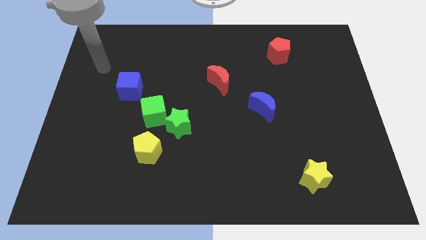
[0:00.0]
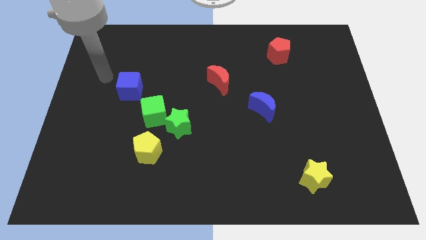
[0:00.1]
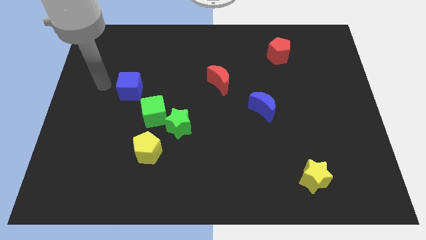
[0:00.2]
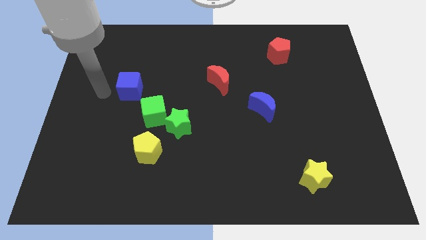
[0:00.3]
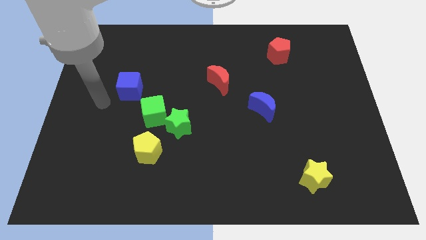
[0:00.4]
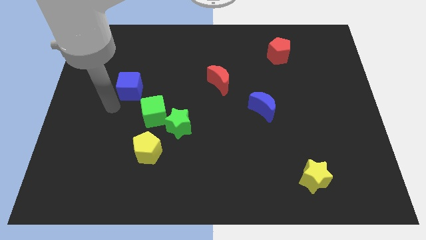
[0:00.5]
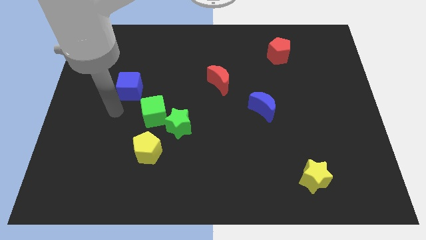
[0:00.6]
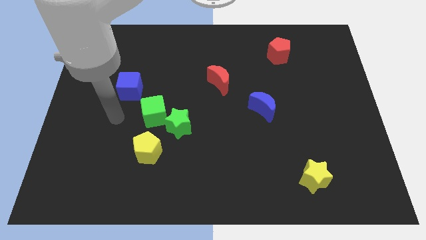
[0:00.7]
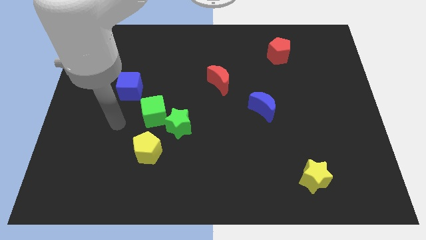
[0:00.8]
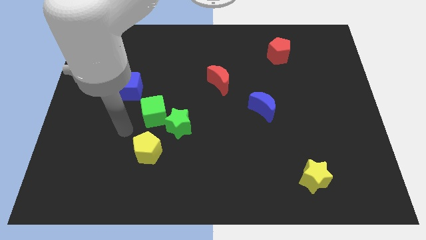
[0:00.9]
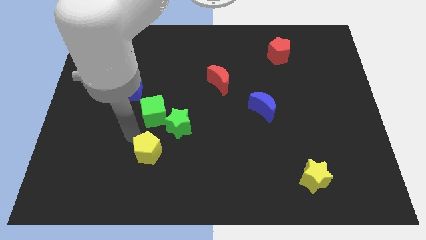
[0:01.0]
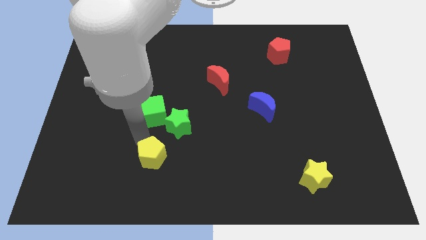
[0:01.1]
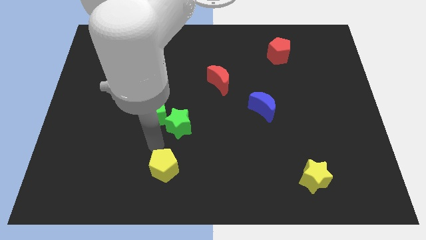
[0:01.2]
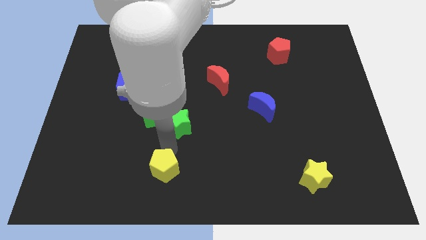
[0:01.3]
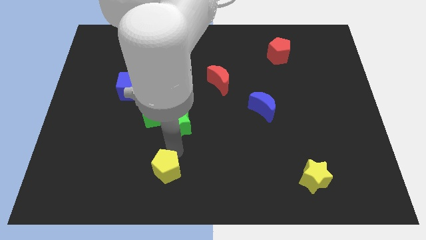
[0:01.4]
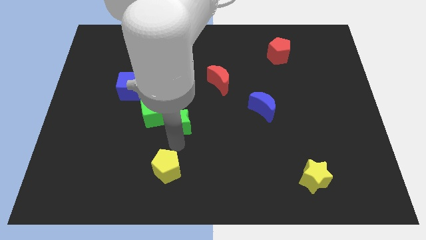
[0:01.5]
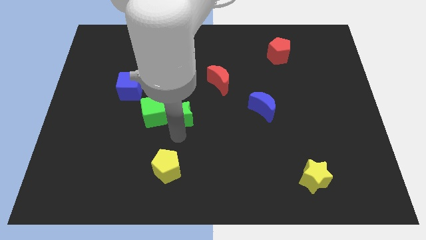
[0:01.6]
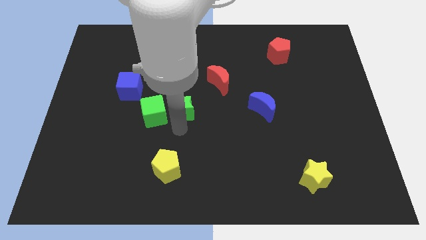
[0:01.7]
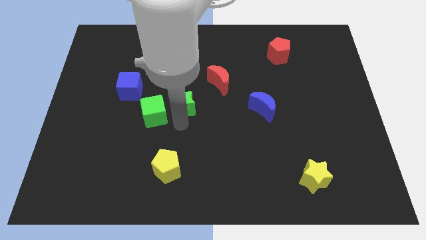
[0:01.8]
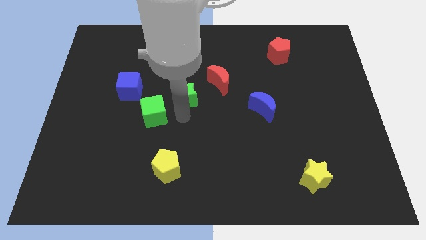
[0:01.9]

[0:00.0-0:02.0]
move the green star slightly up

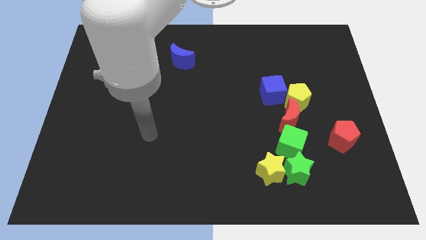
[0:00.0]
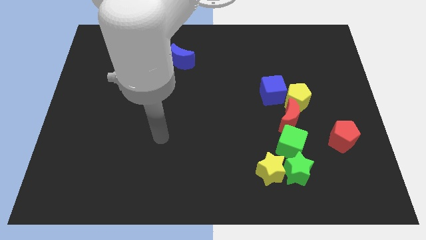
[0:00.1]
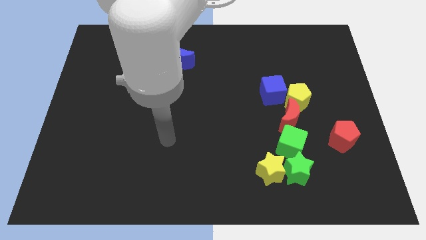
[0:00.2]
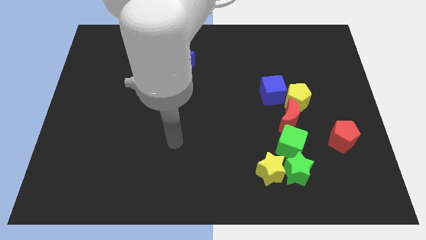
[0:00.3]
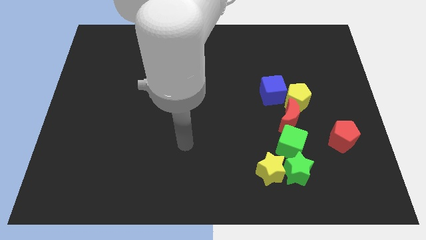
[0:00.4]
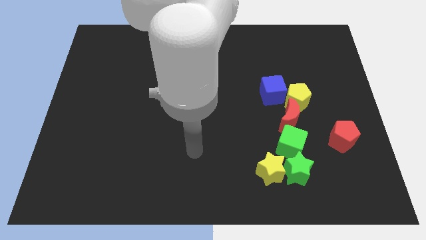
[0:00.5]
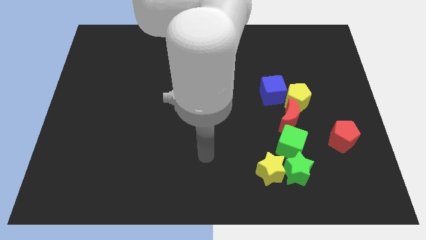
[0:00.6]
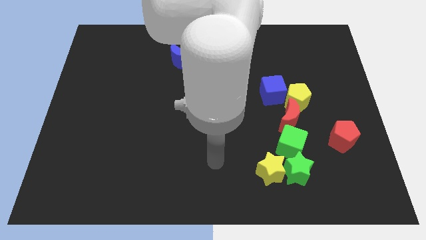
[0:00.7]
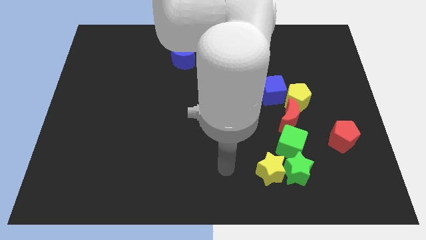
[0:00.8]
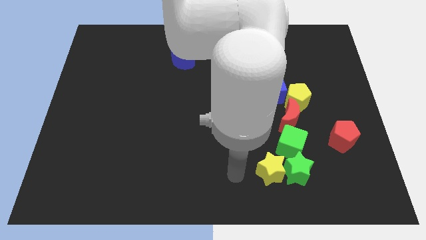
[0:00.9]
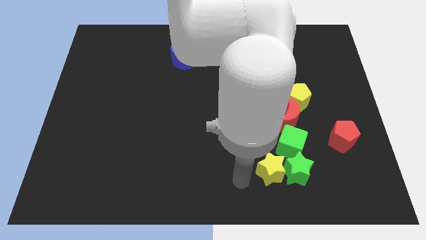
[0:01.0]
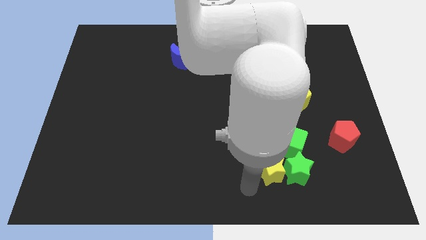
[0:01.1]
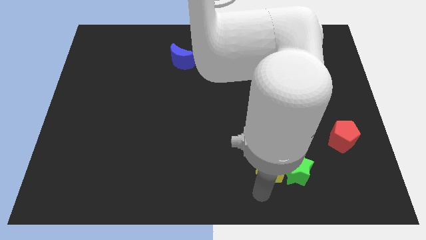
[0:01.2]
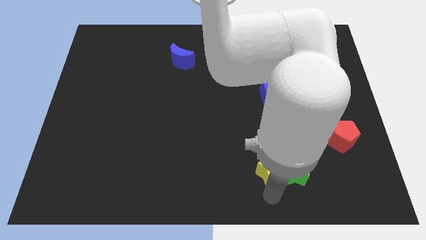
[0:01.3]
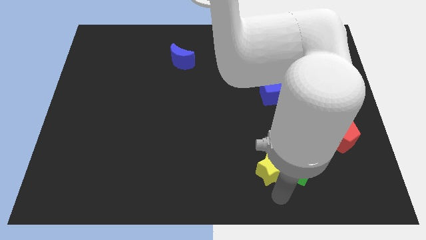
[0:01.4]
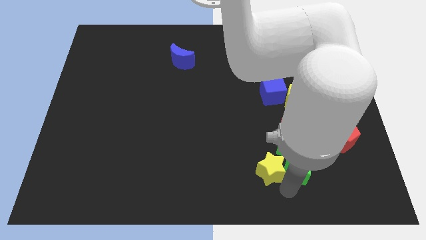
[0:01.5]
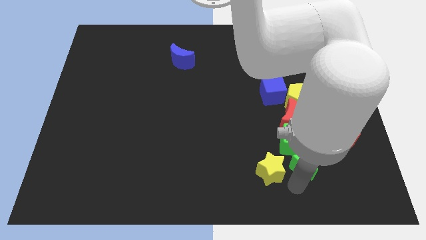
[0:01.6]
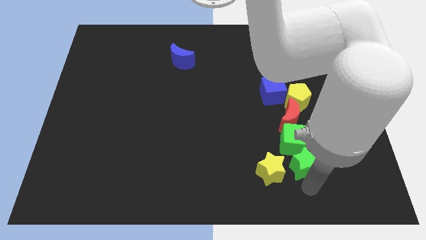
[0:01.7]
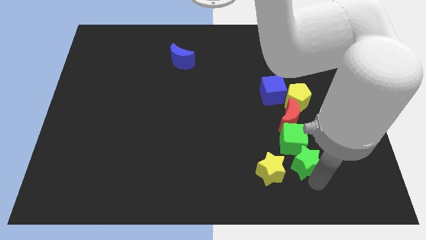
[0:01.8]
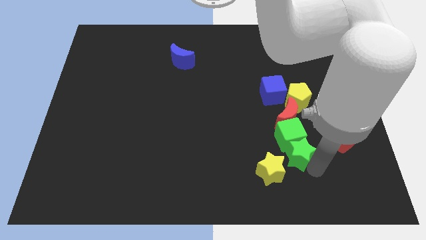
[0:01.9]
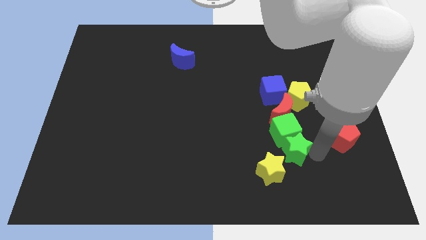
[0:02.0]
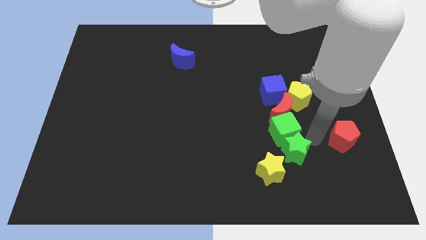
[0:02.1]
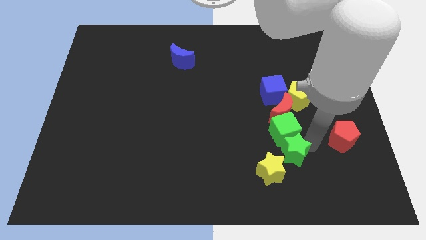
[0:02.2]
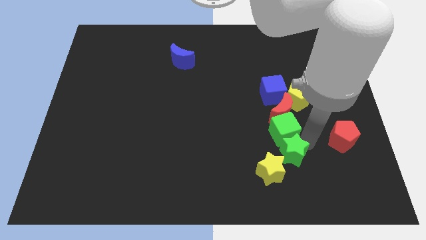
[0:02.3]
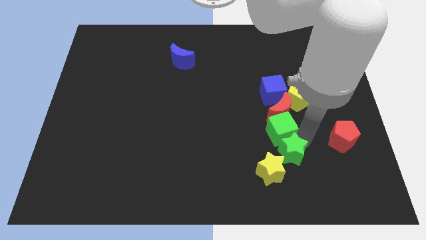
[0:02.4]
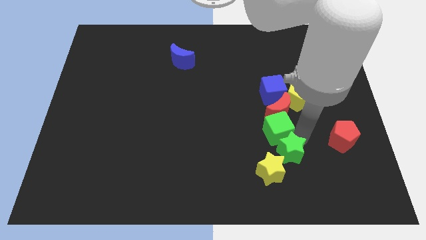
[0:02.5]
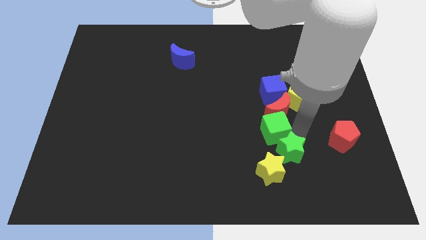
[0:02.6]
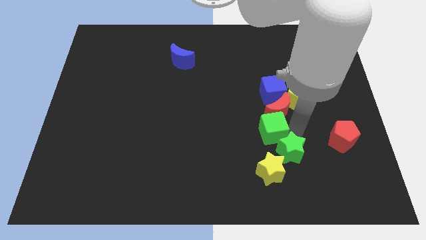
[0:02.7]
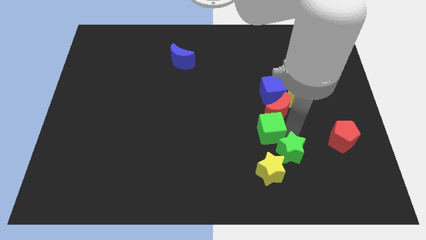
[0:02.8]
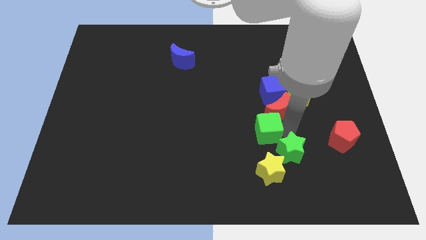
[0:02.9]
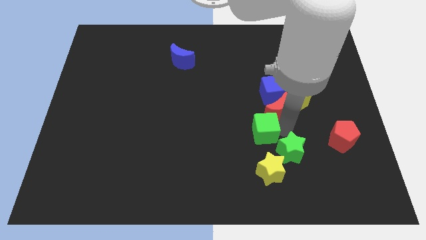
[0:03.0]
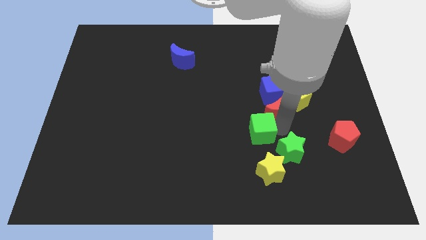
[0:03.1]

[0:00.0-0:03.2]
slightly slide the green cube upwards and left diagonally

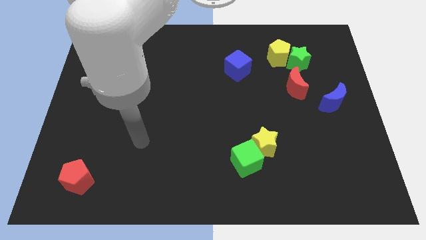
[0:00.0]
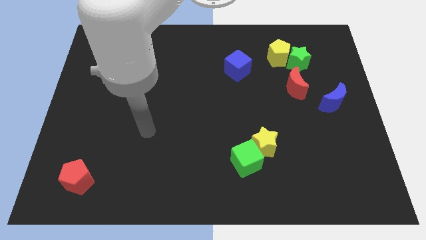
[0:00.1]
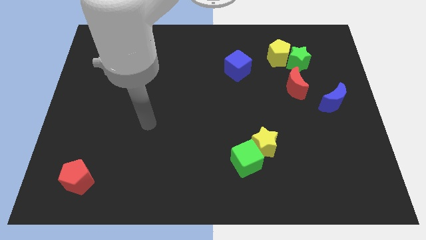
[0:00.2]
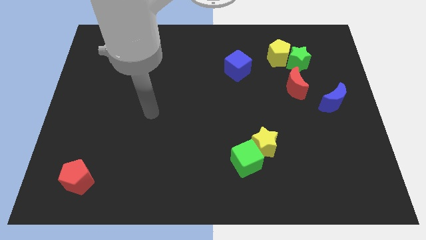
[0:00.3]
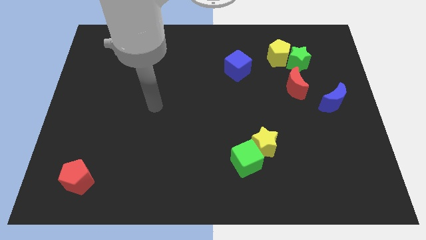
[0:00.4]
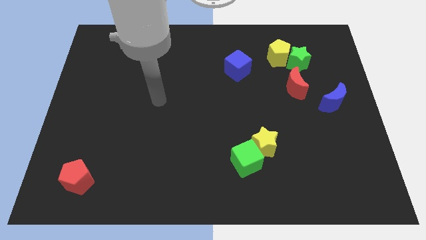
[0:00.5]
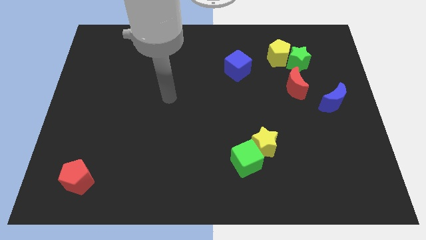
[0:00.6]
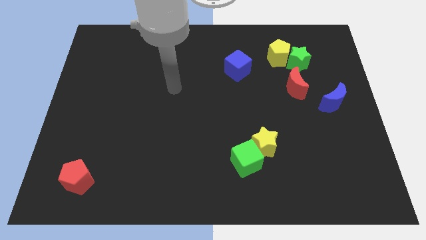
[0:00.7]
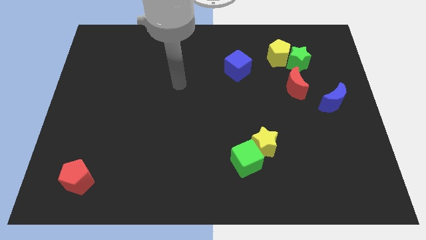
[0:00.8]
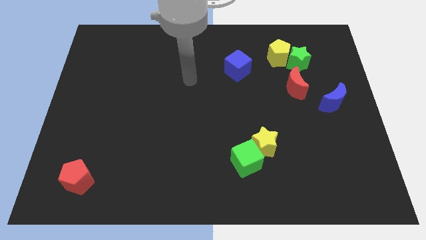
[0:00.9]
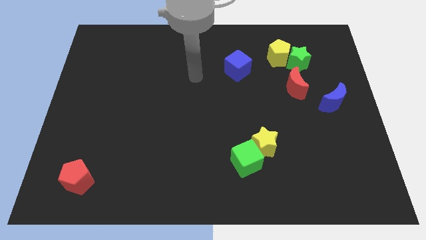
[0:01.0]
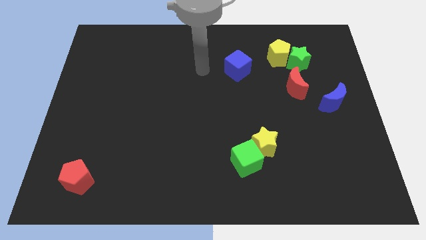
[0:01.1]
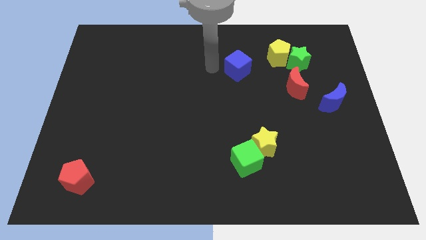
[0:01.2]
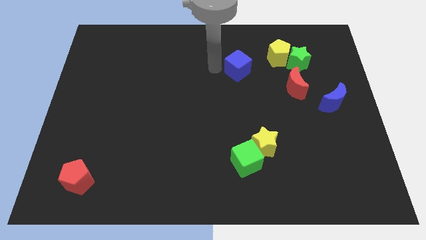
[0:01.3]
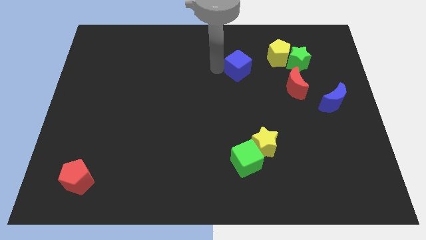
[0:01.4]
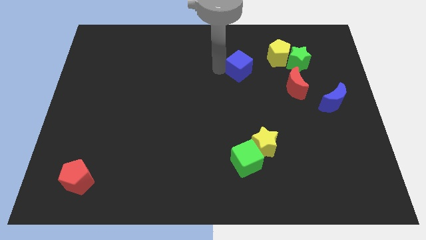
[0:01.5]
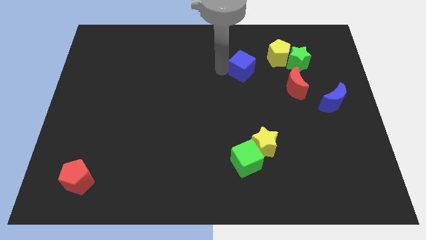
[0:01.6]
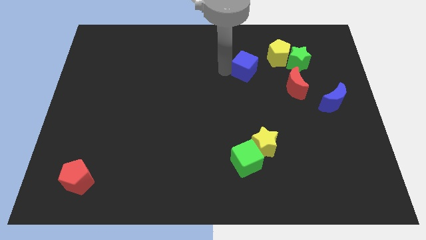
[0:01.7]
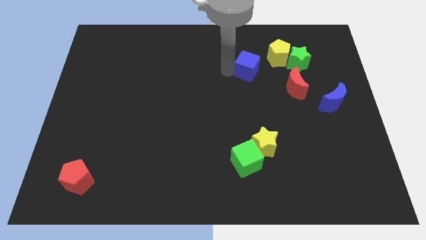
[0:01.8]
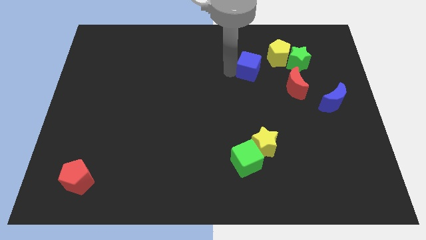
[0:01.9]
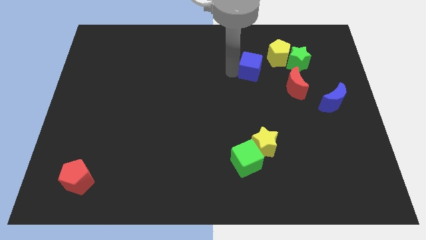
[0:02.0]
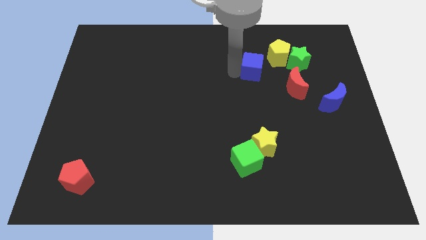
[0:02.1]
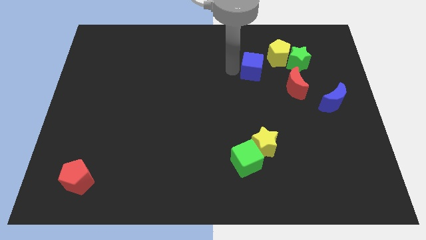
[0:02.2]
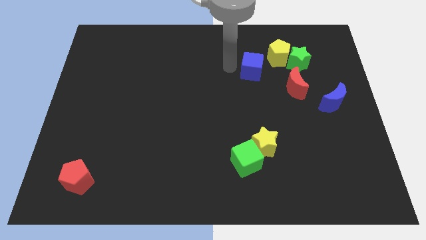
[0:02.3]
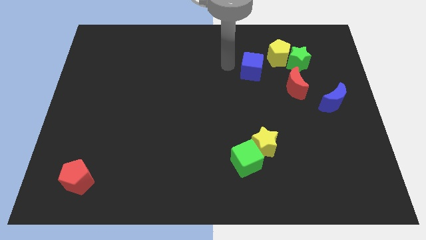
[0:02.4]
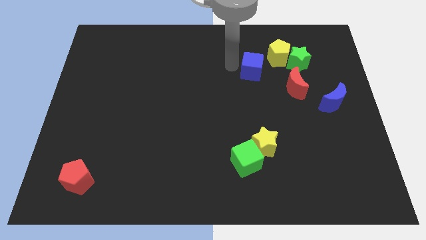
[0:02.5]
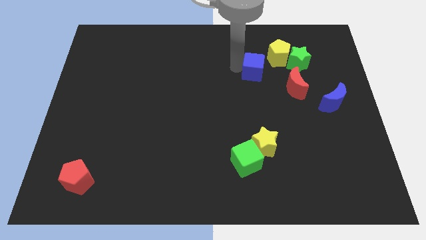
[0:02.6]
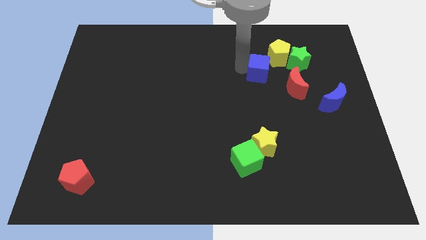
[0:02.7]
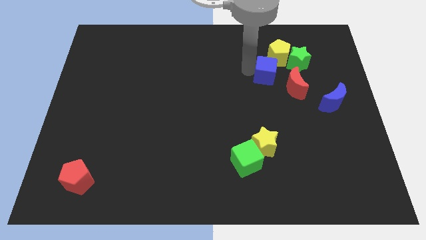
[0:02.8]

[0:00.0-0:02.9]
slide the blue cube right slightly
